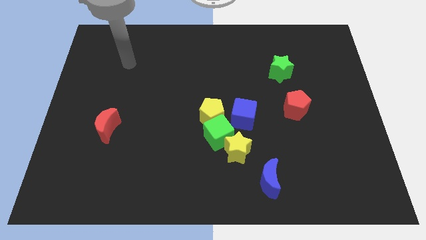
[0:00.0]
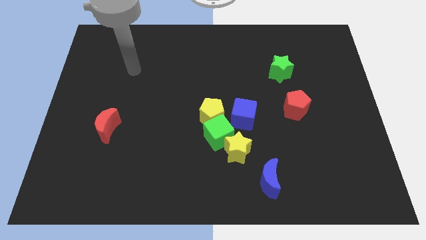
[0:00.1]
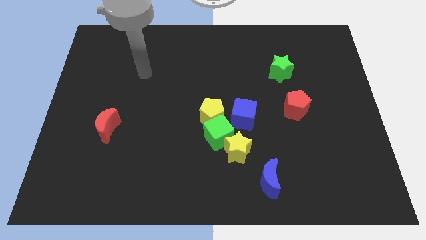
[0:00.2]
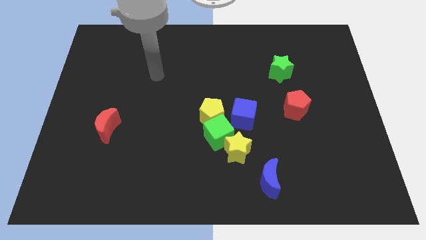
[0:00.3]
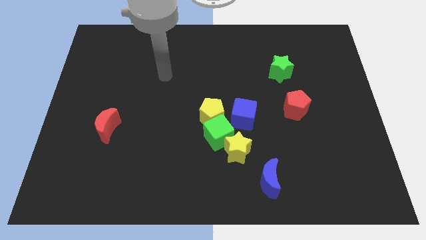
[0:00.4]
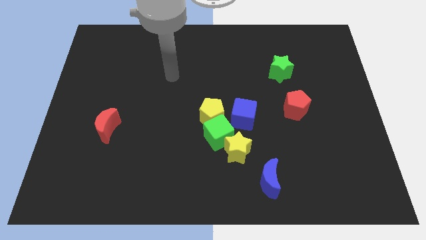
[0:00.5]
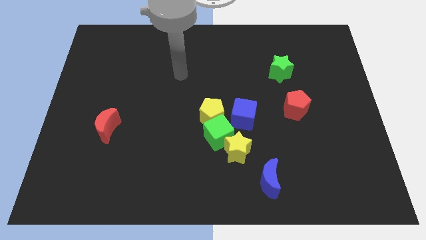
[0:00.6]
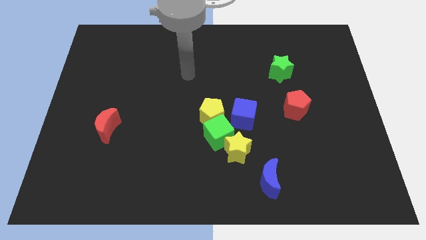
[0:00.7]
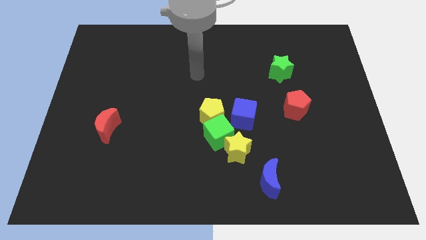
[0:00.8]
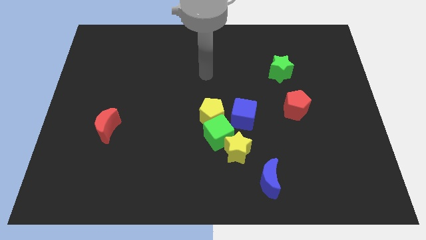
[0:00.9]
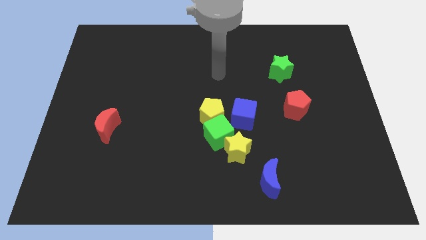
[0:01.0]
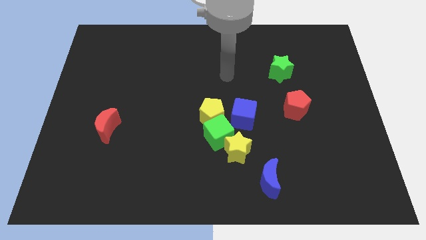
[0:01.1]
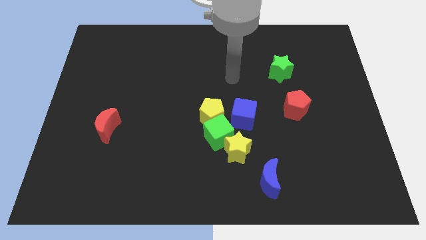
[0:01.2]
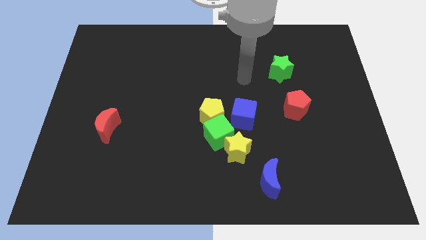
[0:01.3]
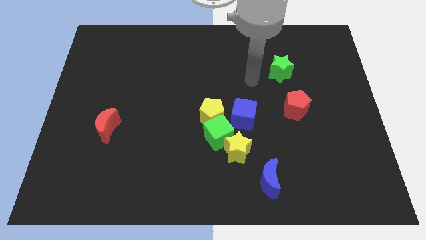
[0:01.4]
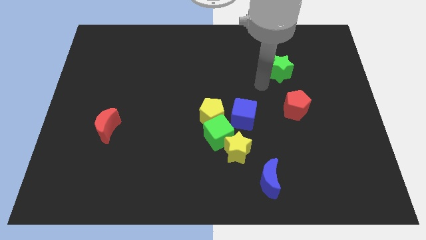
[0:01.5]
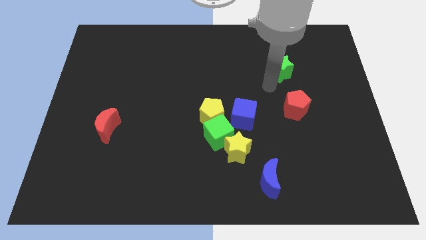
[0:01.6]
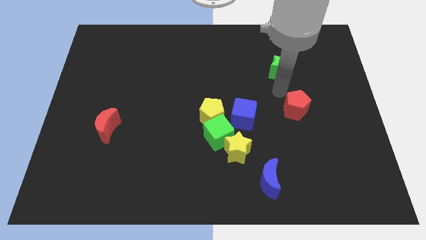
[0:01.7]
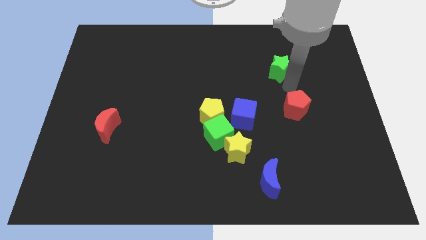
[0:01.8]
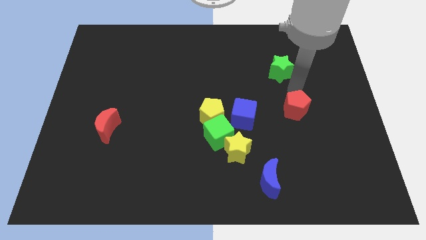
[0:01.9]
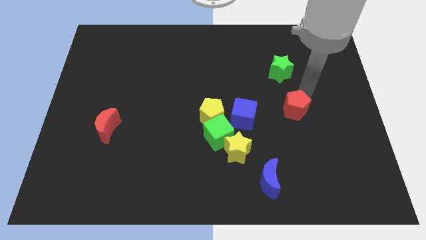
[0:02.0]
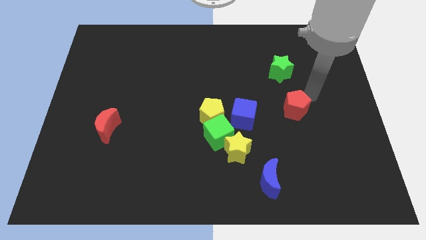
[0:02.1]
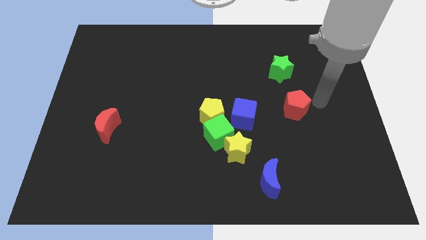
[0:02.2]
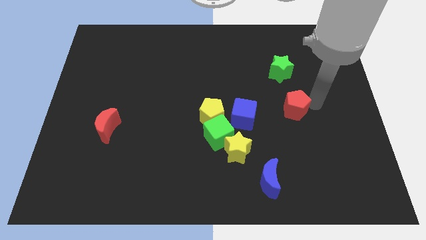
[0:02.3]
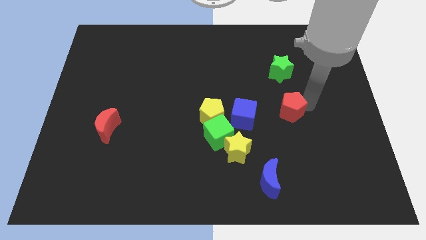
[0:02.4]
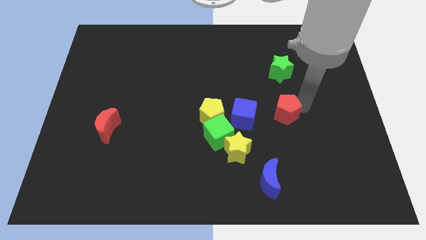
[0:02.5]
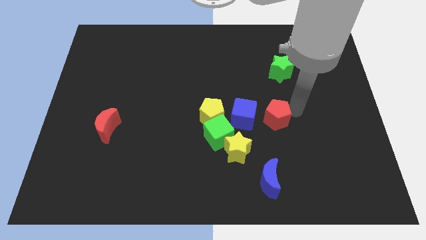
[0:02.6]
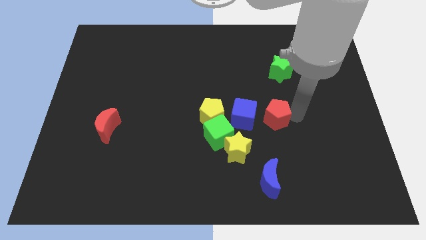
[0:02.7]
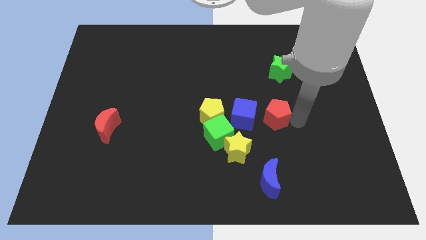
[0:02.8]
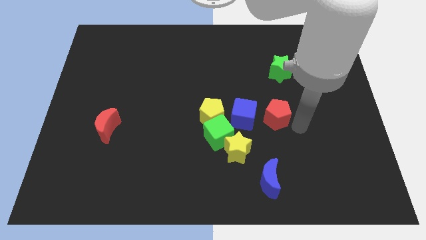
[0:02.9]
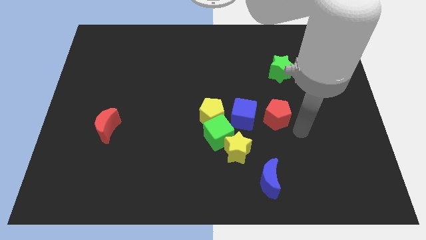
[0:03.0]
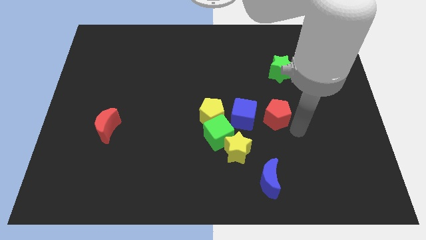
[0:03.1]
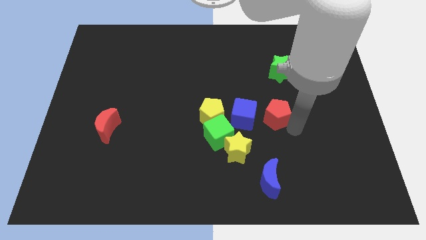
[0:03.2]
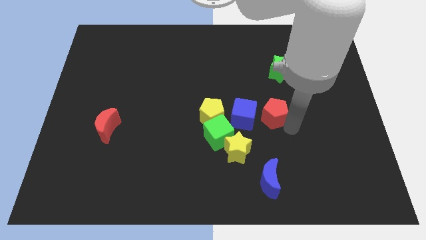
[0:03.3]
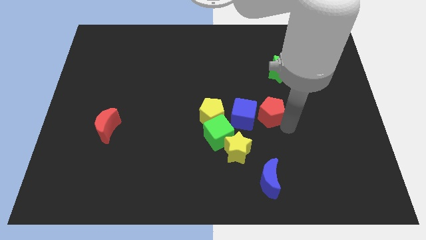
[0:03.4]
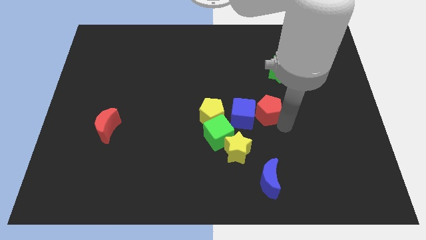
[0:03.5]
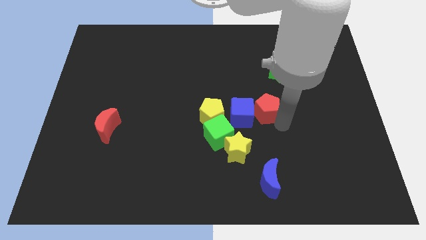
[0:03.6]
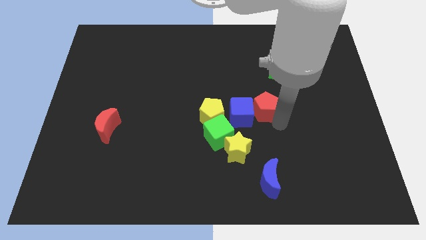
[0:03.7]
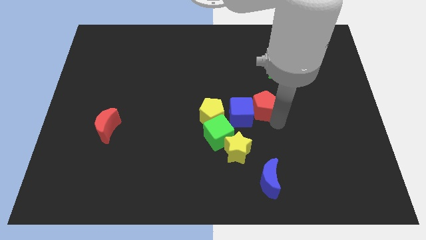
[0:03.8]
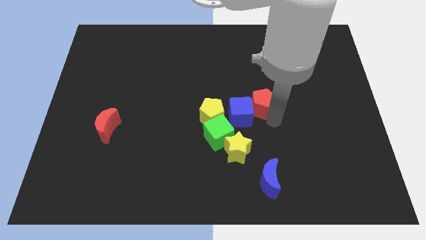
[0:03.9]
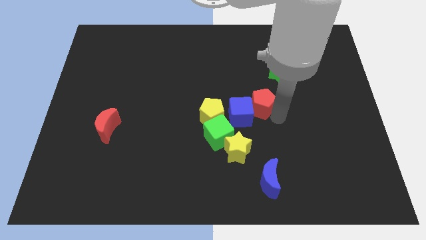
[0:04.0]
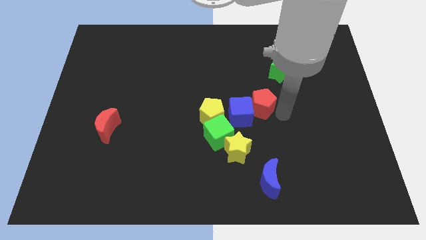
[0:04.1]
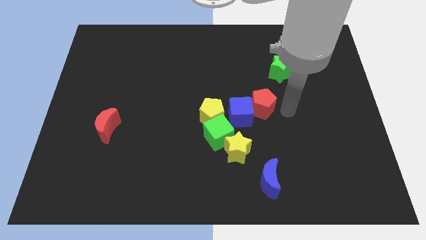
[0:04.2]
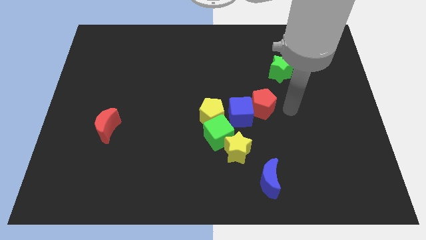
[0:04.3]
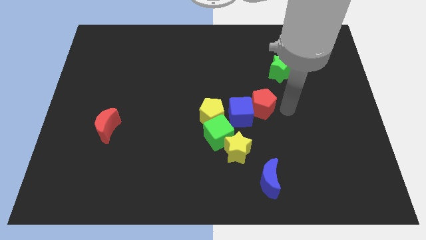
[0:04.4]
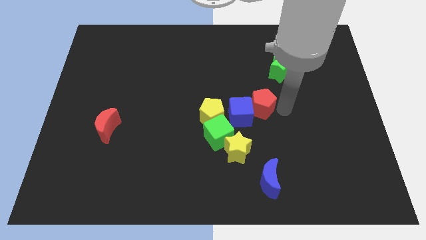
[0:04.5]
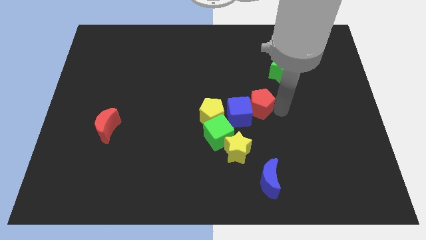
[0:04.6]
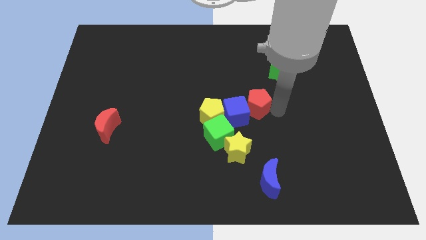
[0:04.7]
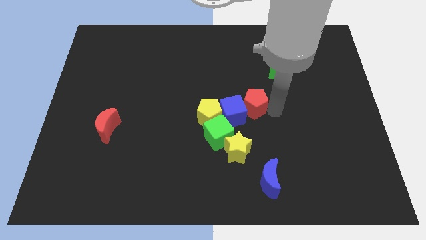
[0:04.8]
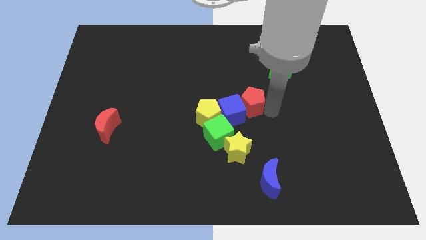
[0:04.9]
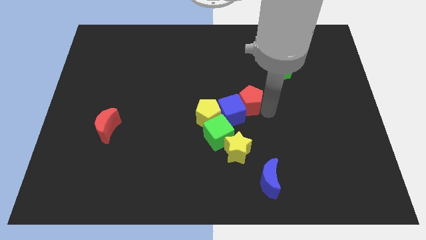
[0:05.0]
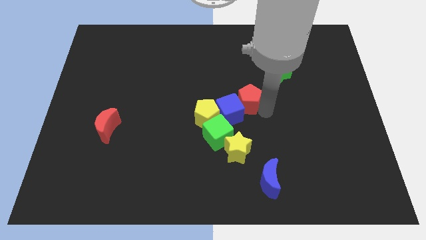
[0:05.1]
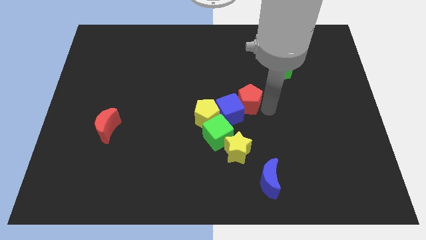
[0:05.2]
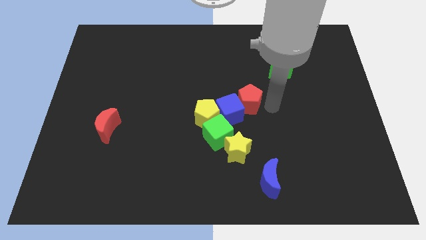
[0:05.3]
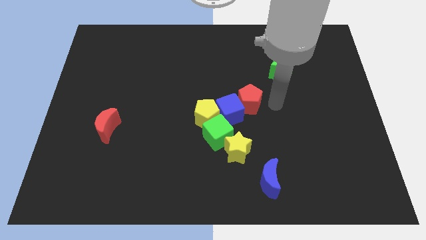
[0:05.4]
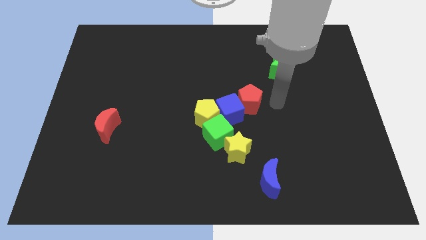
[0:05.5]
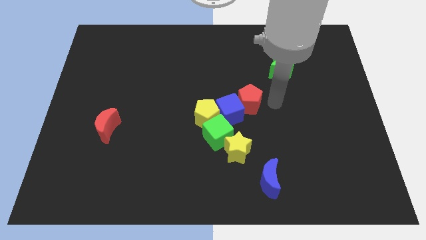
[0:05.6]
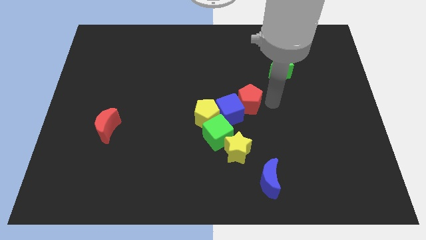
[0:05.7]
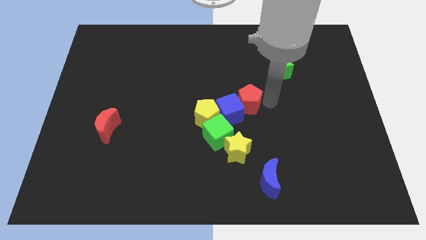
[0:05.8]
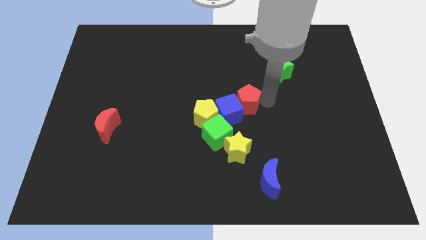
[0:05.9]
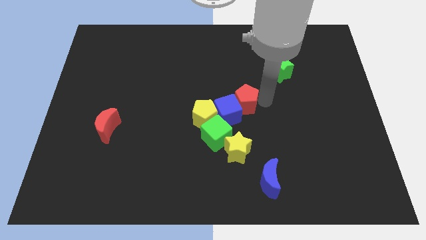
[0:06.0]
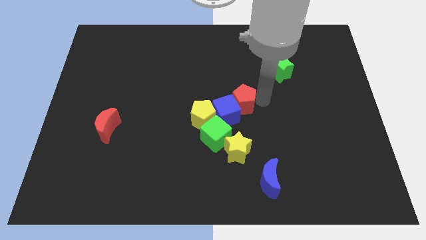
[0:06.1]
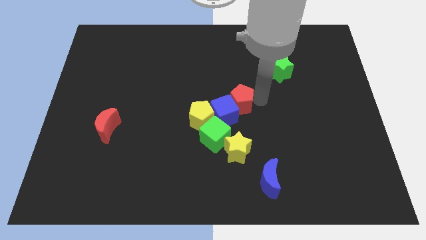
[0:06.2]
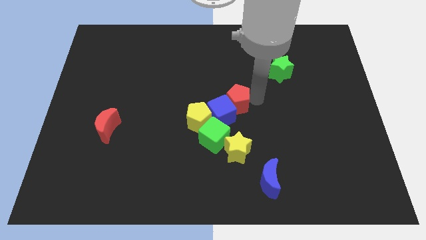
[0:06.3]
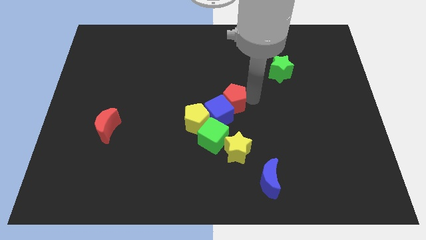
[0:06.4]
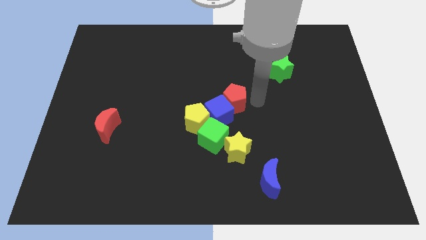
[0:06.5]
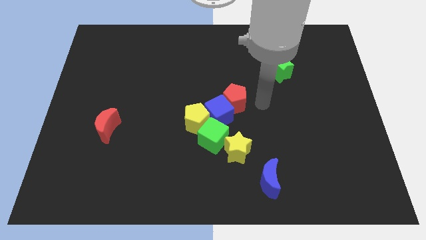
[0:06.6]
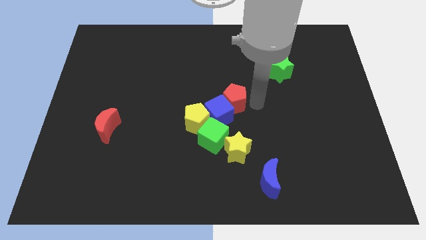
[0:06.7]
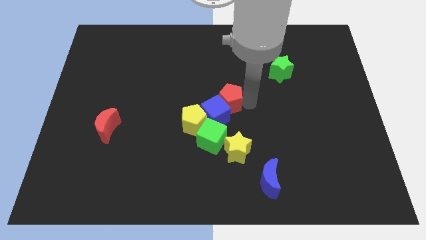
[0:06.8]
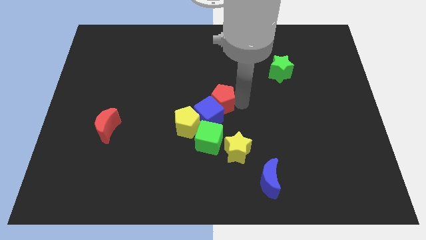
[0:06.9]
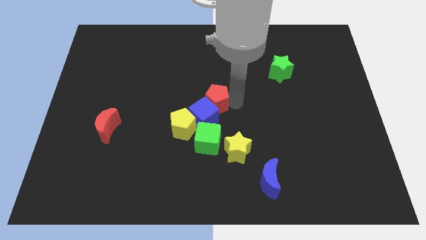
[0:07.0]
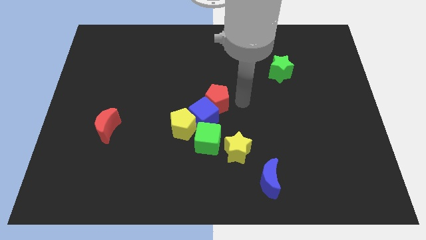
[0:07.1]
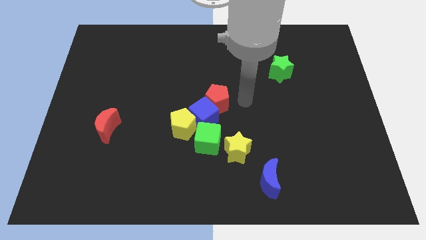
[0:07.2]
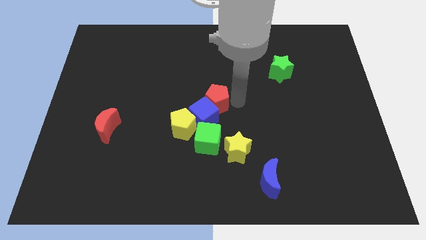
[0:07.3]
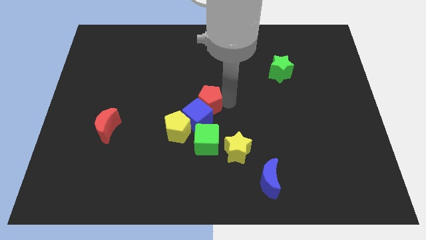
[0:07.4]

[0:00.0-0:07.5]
push the red pentagon to the left

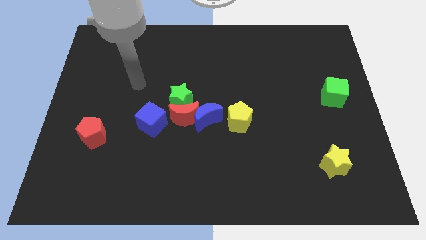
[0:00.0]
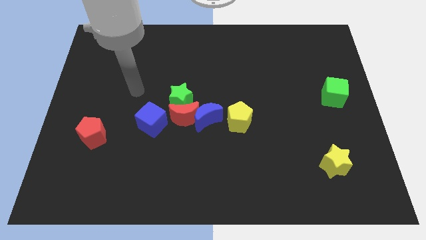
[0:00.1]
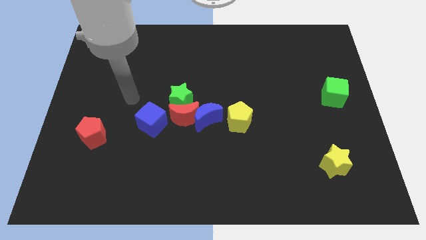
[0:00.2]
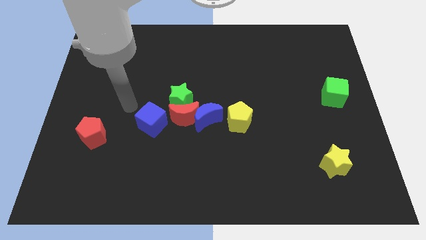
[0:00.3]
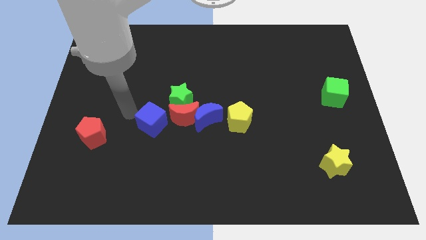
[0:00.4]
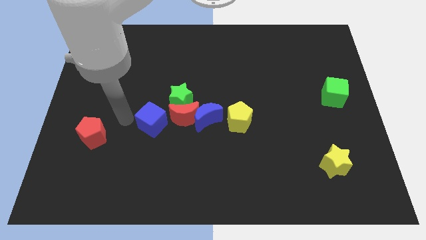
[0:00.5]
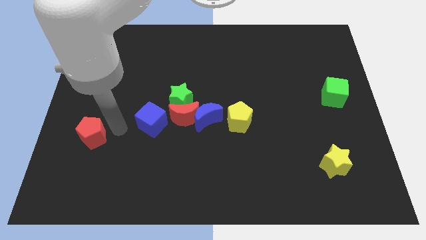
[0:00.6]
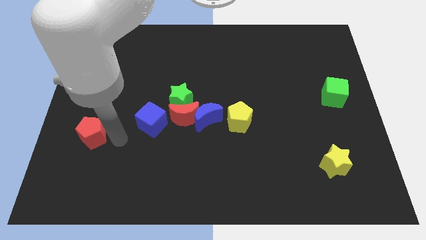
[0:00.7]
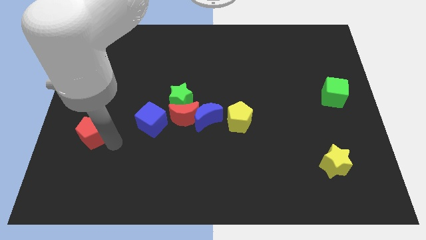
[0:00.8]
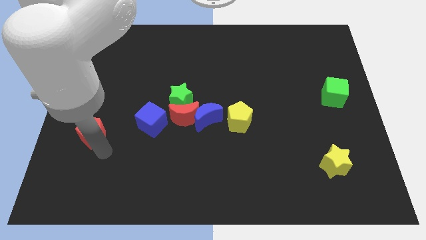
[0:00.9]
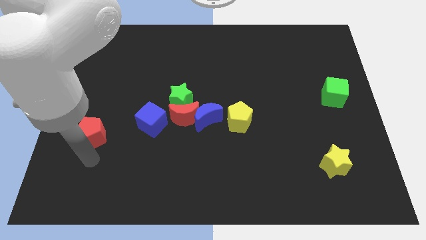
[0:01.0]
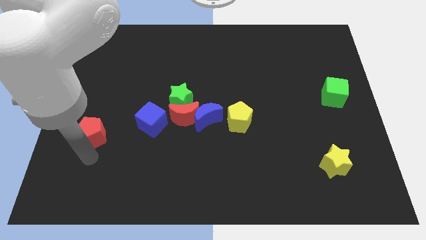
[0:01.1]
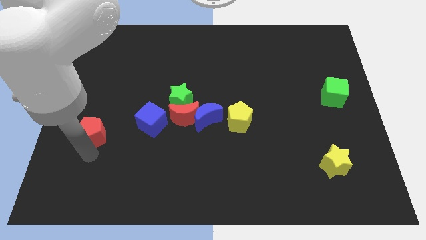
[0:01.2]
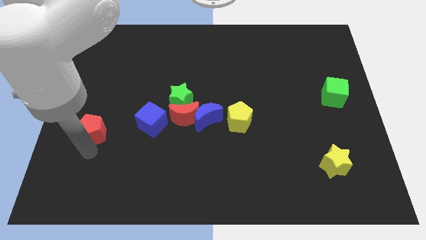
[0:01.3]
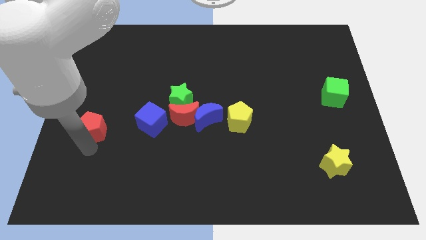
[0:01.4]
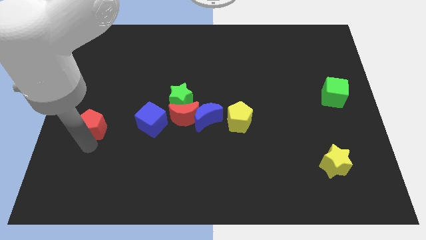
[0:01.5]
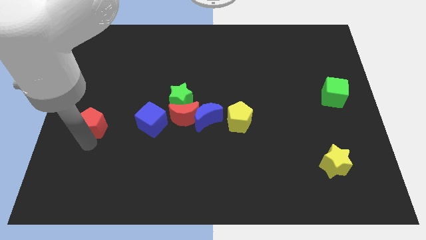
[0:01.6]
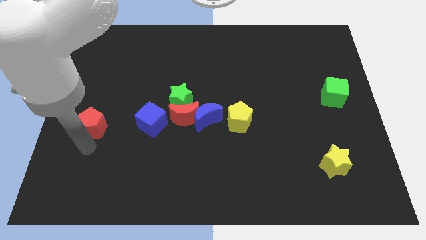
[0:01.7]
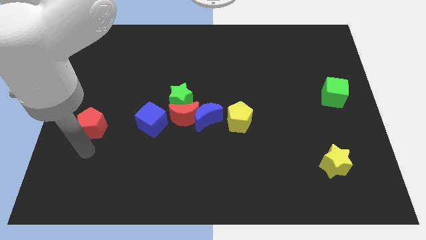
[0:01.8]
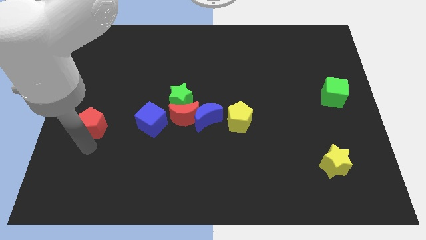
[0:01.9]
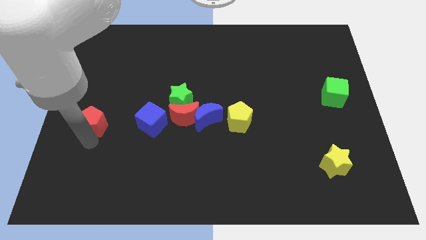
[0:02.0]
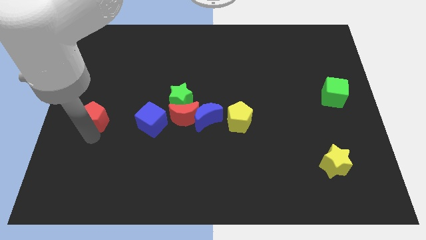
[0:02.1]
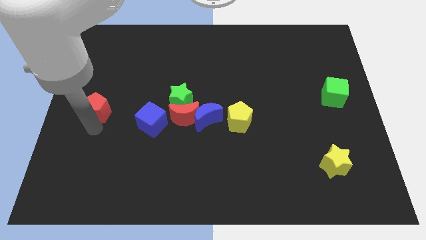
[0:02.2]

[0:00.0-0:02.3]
slide the red pentagon a little up
